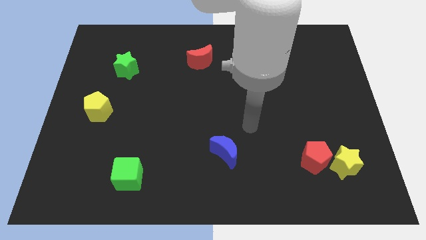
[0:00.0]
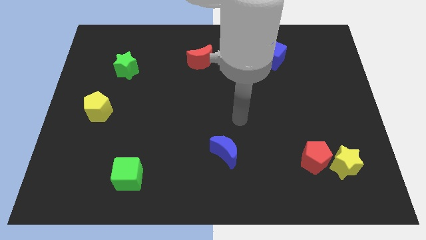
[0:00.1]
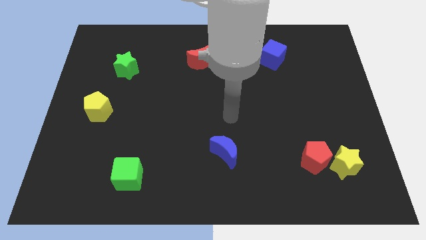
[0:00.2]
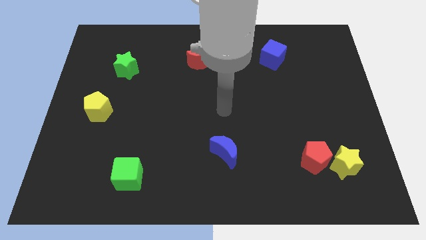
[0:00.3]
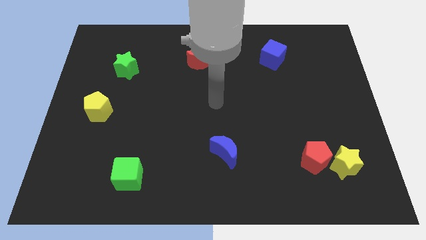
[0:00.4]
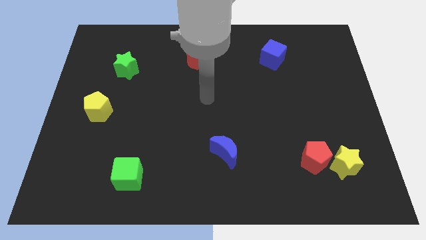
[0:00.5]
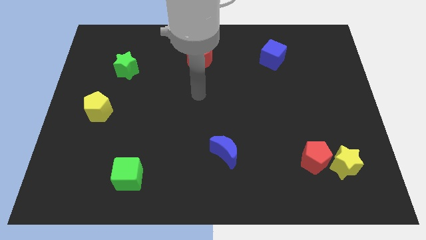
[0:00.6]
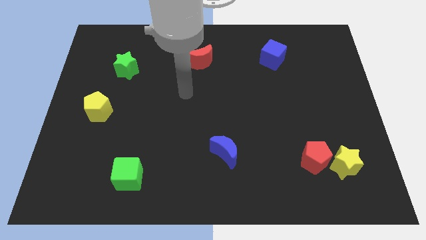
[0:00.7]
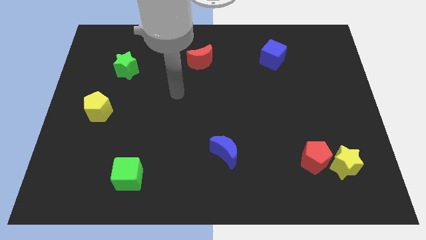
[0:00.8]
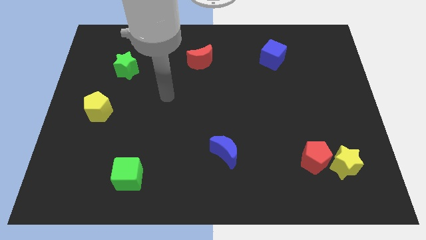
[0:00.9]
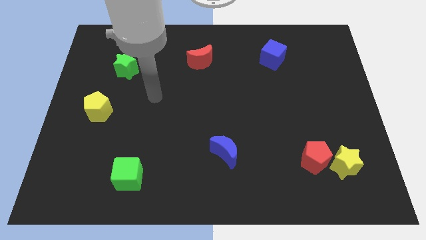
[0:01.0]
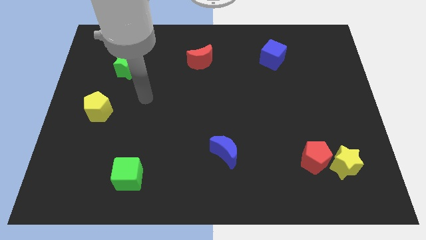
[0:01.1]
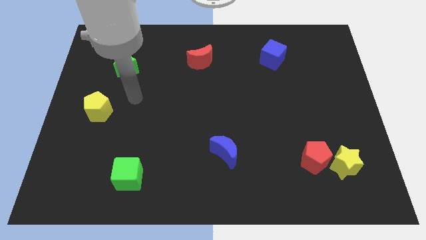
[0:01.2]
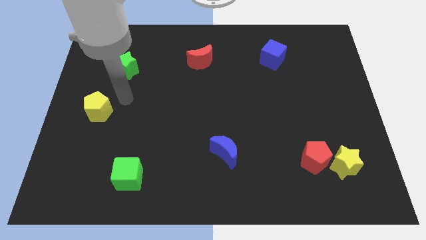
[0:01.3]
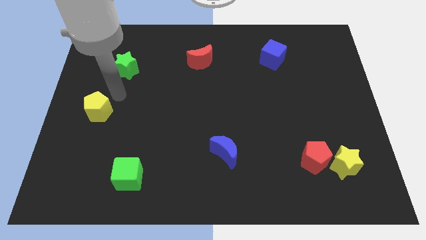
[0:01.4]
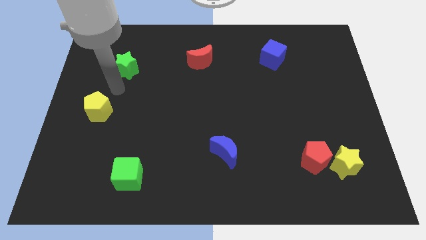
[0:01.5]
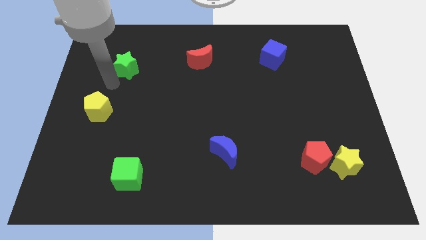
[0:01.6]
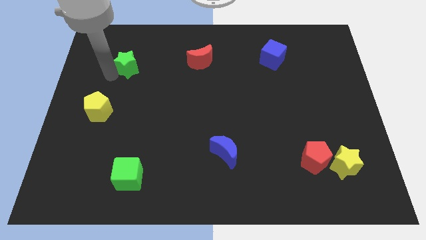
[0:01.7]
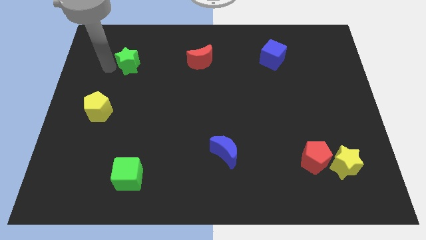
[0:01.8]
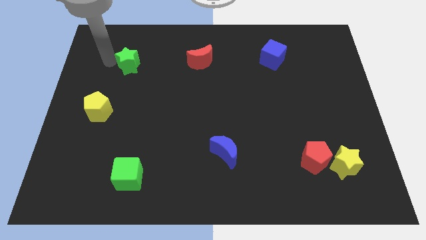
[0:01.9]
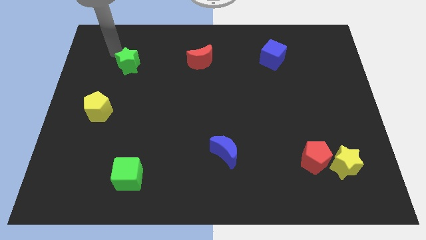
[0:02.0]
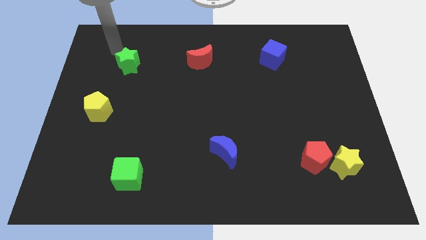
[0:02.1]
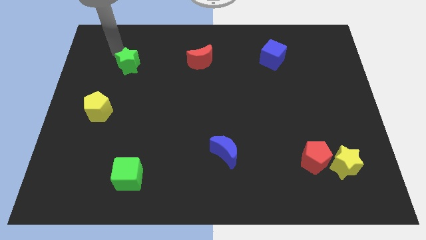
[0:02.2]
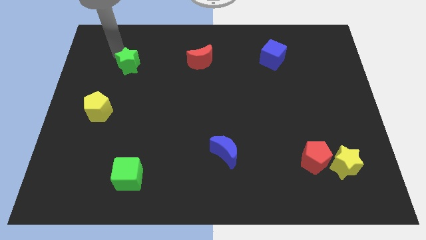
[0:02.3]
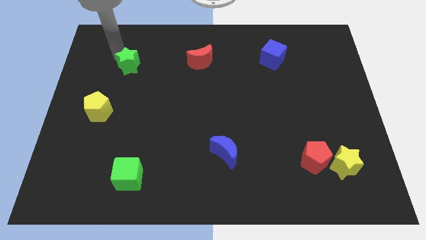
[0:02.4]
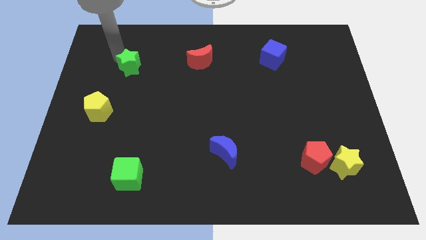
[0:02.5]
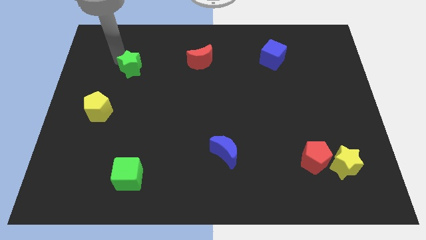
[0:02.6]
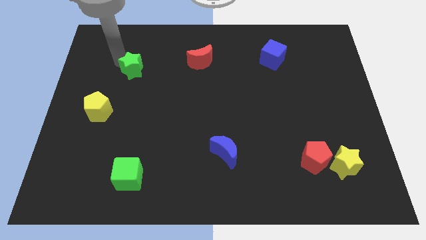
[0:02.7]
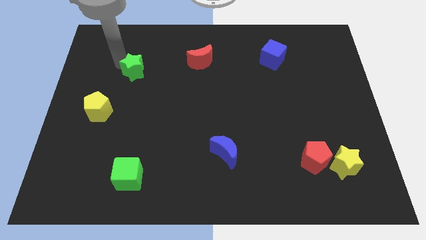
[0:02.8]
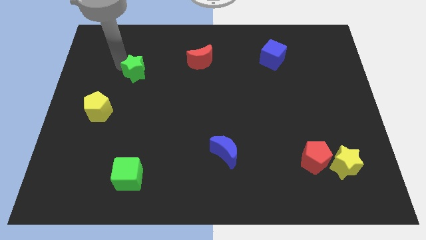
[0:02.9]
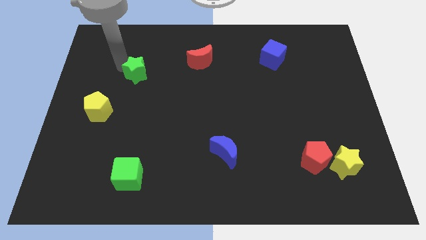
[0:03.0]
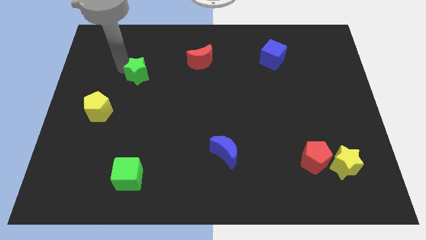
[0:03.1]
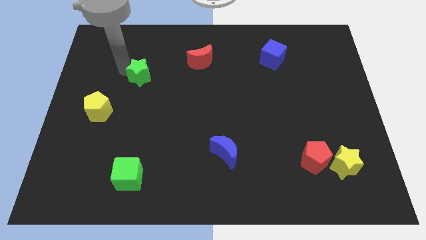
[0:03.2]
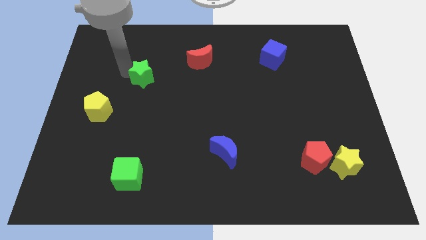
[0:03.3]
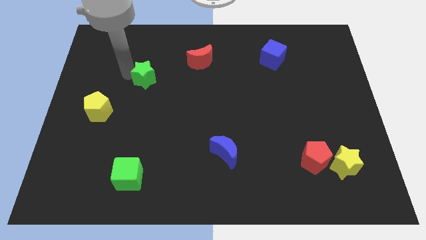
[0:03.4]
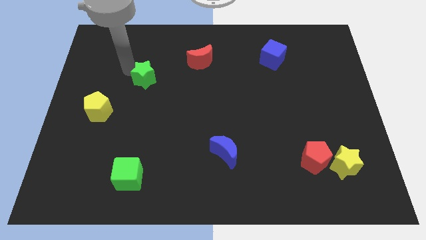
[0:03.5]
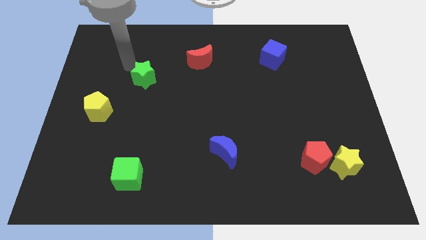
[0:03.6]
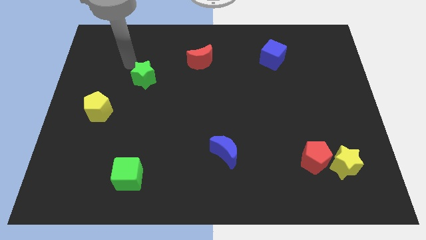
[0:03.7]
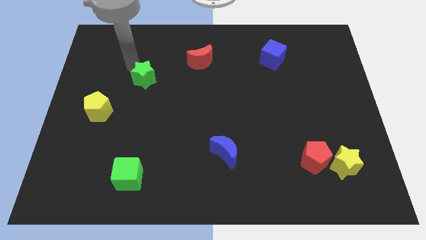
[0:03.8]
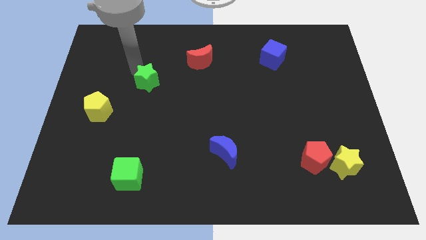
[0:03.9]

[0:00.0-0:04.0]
move the green star a little bit down and to the right diagonally

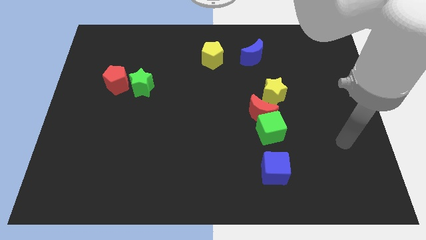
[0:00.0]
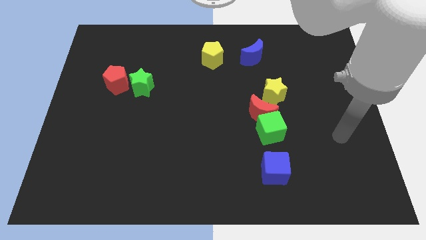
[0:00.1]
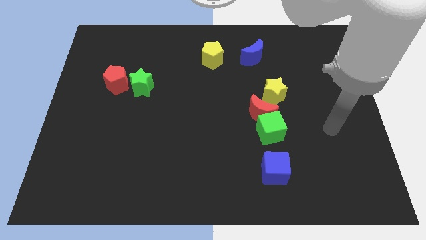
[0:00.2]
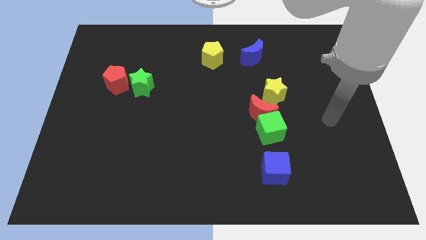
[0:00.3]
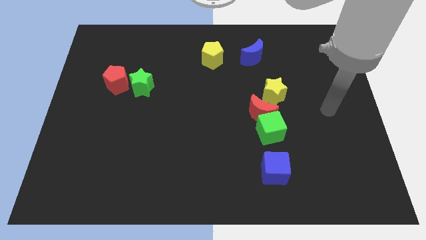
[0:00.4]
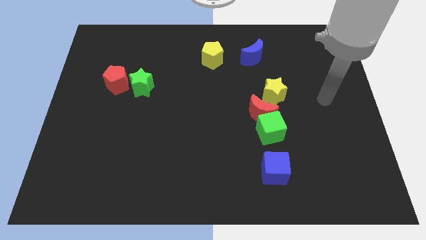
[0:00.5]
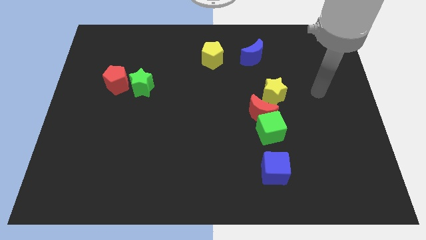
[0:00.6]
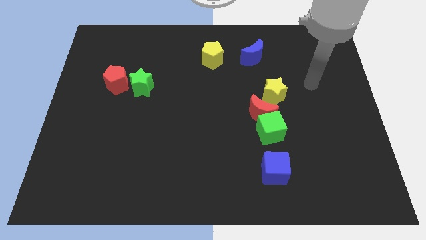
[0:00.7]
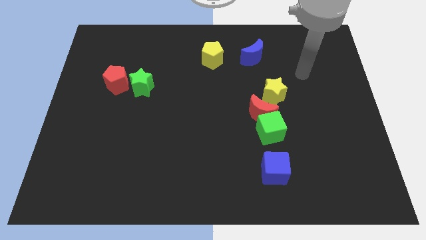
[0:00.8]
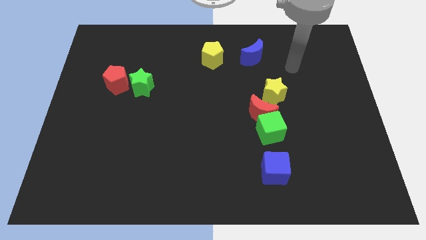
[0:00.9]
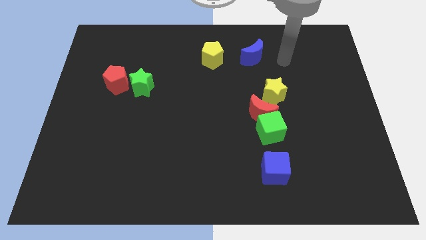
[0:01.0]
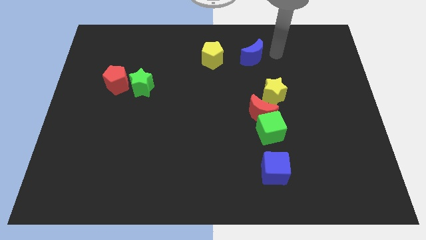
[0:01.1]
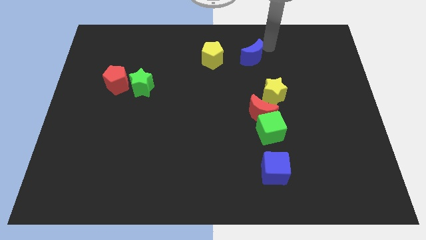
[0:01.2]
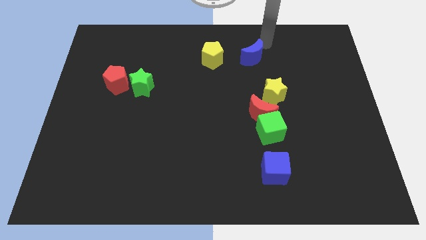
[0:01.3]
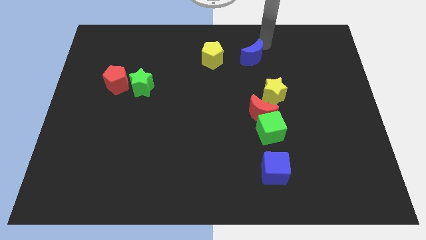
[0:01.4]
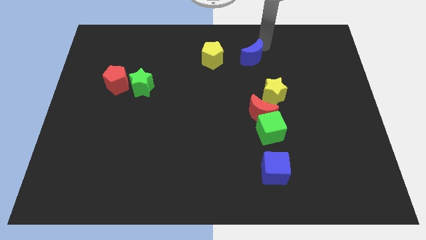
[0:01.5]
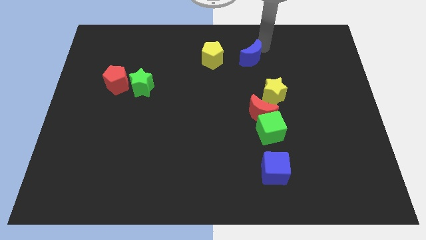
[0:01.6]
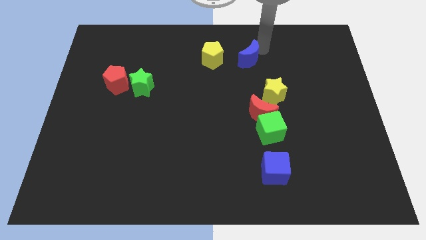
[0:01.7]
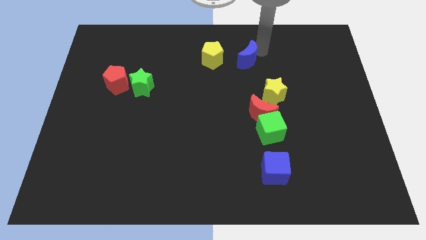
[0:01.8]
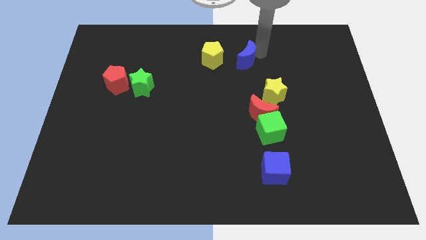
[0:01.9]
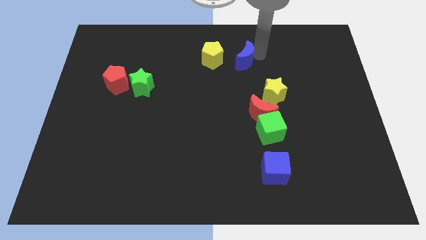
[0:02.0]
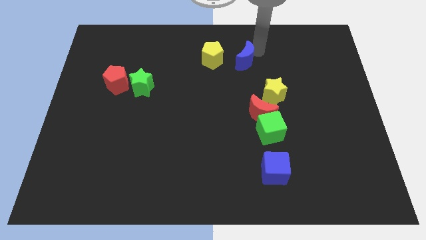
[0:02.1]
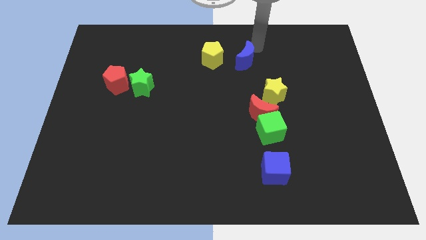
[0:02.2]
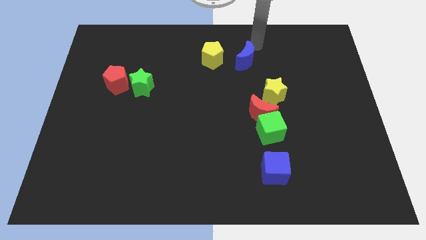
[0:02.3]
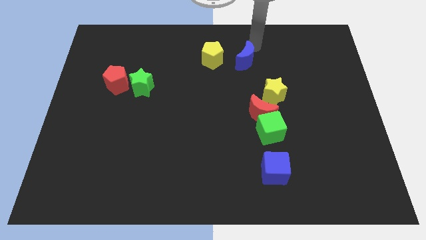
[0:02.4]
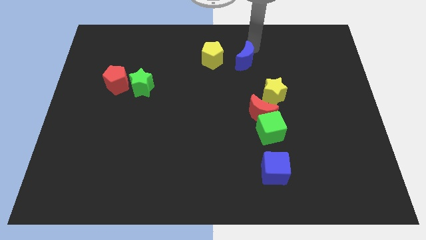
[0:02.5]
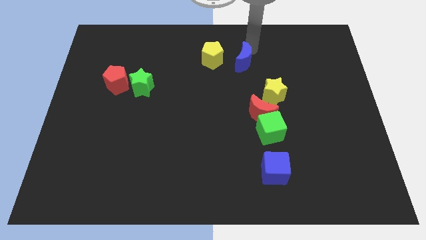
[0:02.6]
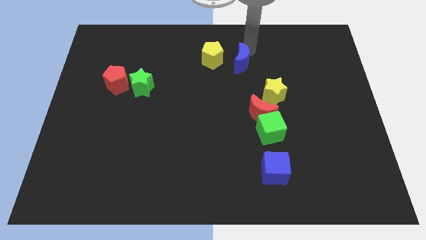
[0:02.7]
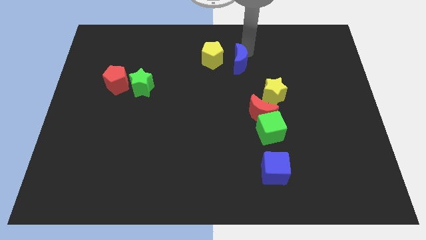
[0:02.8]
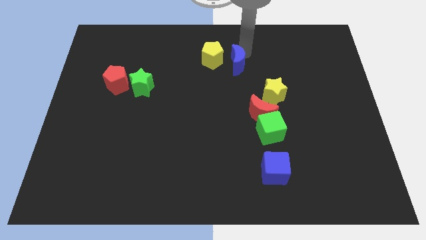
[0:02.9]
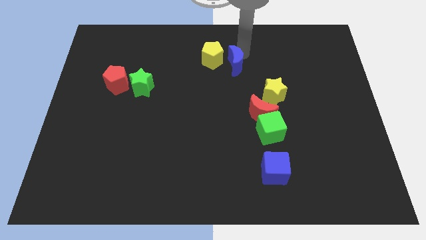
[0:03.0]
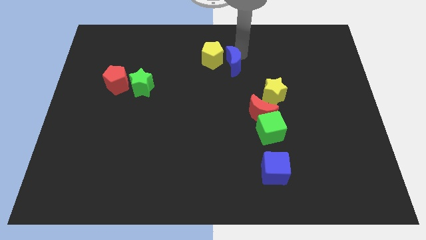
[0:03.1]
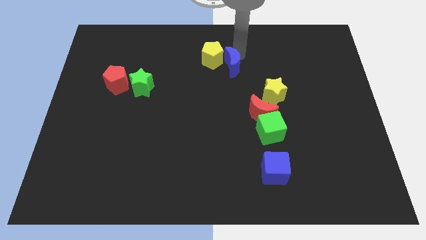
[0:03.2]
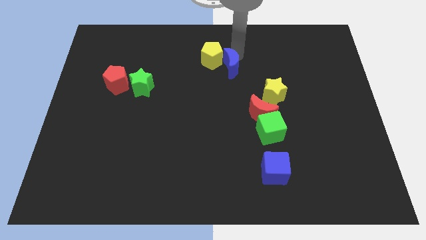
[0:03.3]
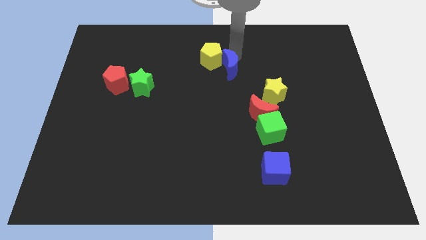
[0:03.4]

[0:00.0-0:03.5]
push the blue moon somewhat down and left diagonally

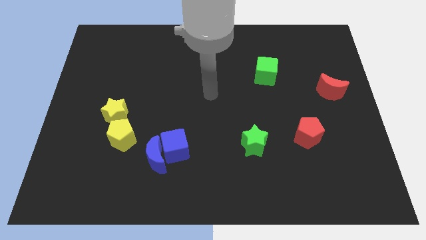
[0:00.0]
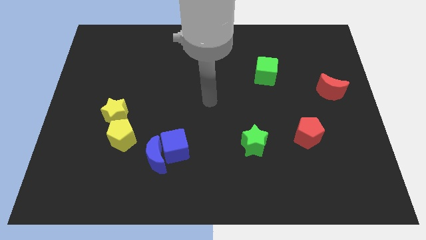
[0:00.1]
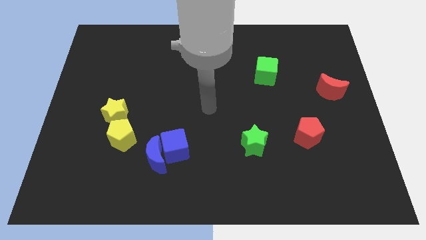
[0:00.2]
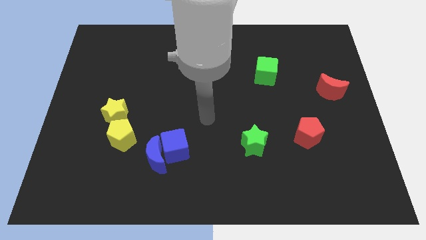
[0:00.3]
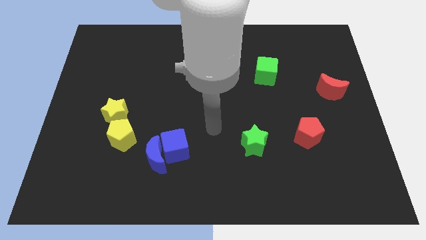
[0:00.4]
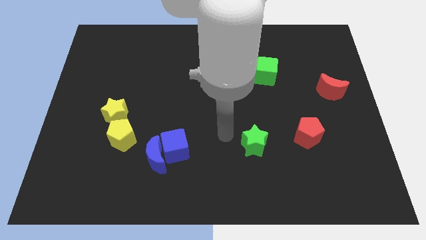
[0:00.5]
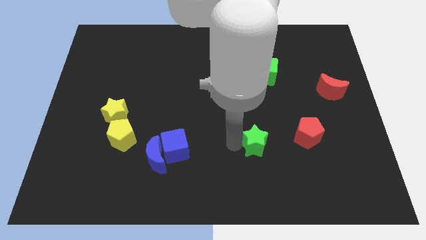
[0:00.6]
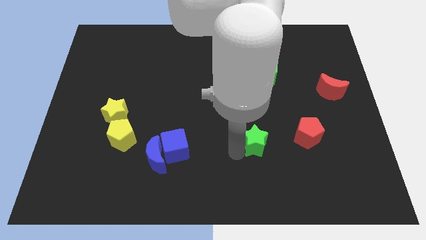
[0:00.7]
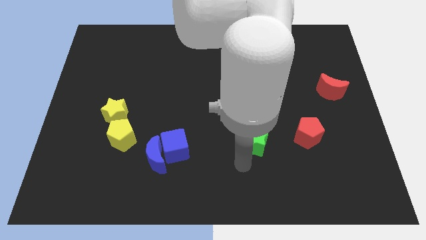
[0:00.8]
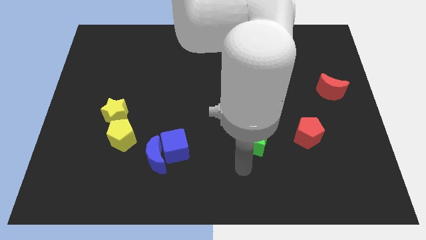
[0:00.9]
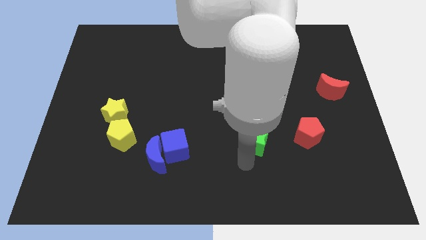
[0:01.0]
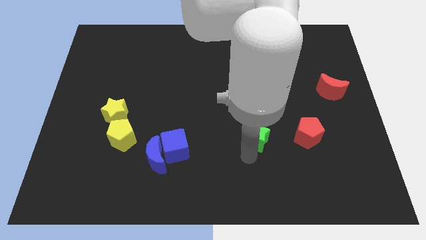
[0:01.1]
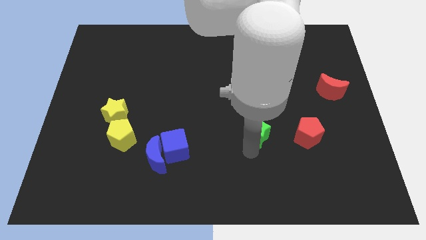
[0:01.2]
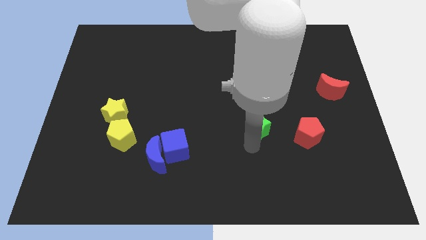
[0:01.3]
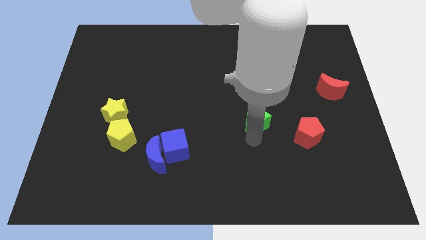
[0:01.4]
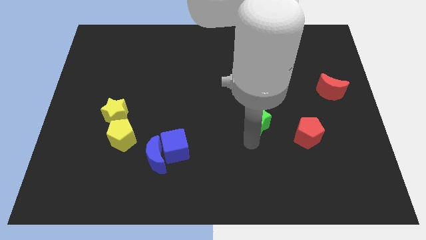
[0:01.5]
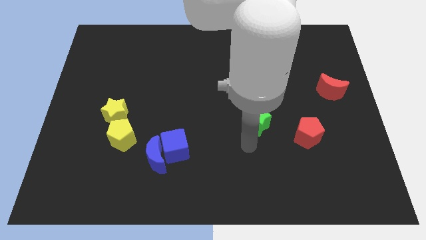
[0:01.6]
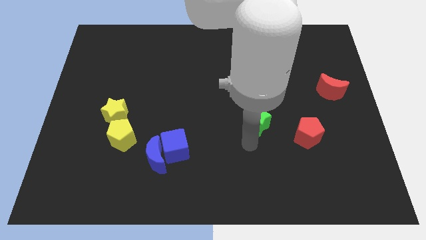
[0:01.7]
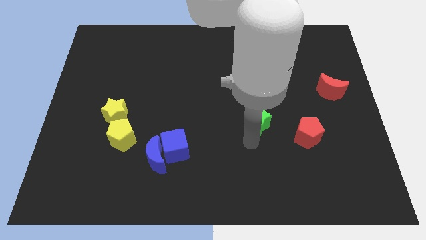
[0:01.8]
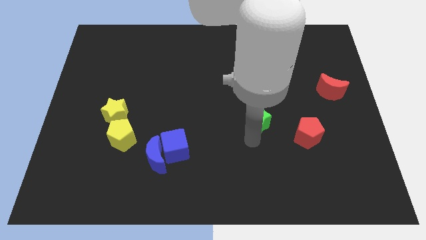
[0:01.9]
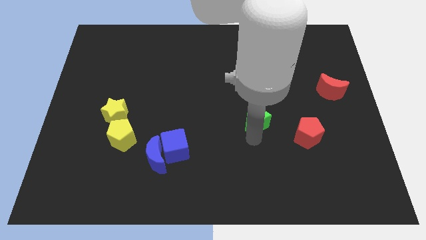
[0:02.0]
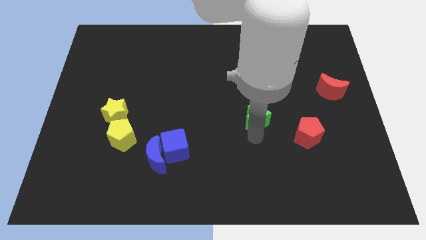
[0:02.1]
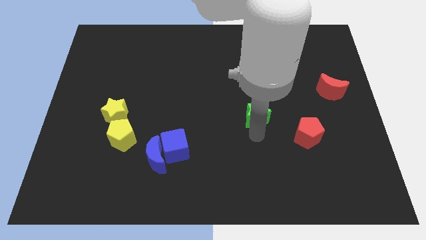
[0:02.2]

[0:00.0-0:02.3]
slightly slide the green star up
